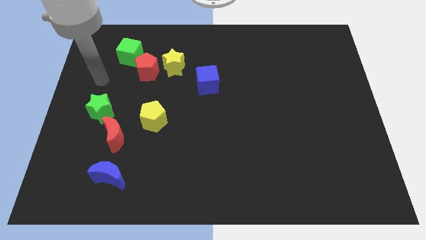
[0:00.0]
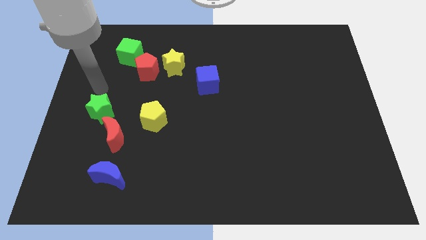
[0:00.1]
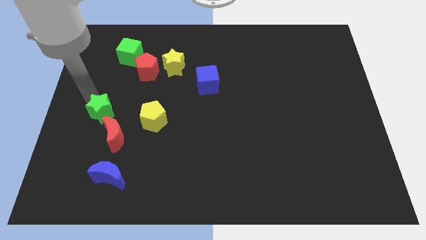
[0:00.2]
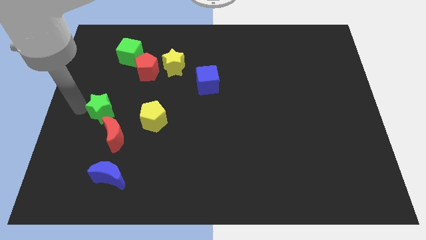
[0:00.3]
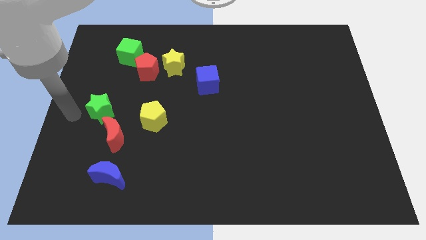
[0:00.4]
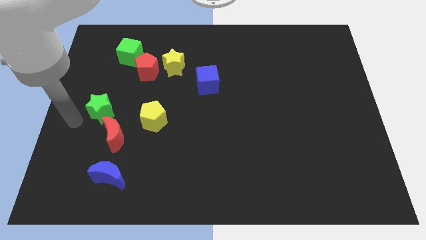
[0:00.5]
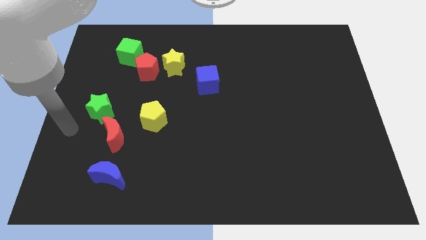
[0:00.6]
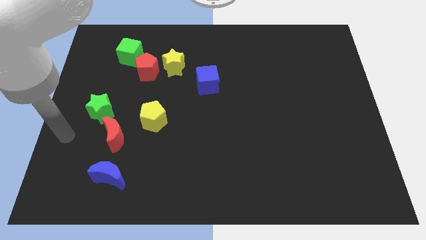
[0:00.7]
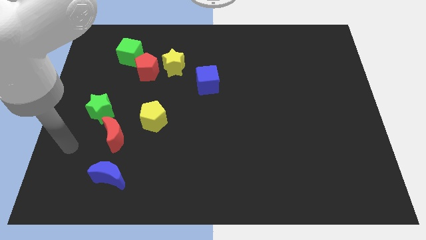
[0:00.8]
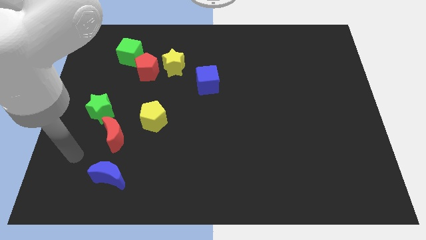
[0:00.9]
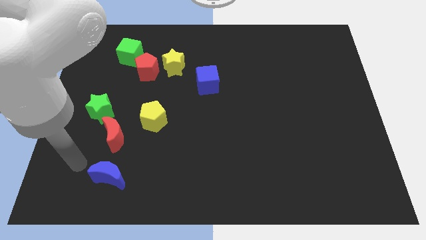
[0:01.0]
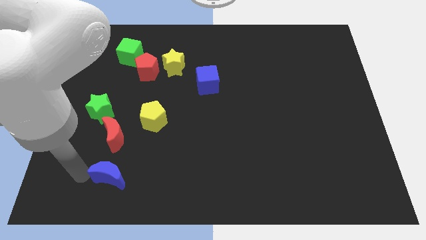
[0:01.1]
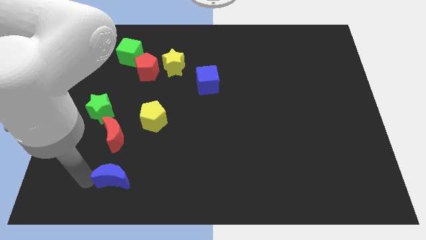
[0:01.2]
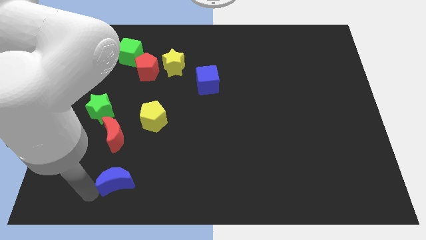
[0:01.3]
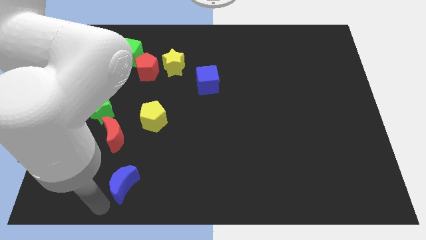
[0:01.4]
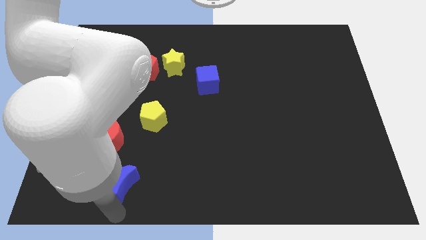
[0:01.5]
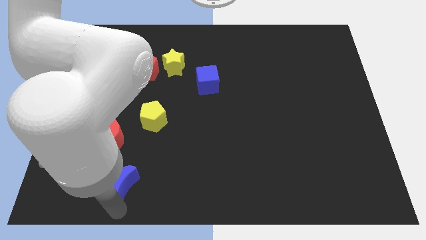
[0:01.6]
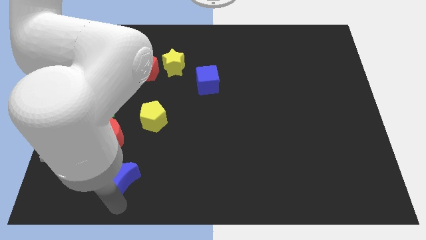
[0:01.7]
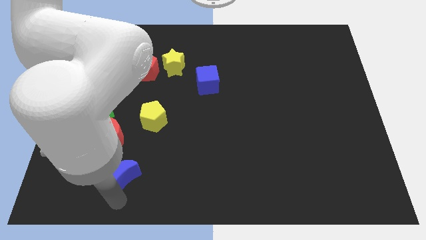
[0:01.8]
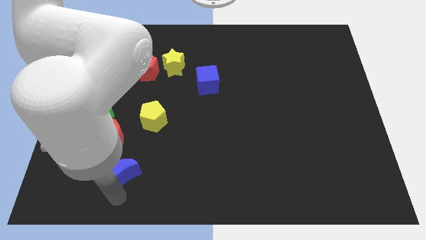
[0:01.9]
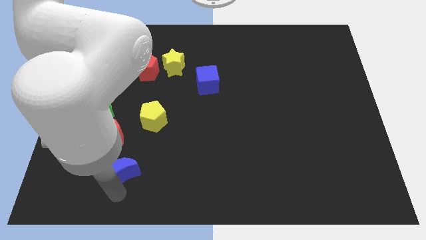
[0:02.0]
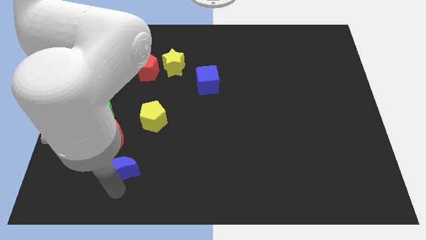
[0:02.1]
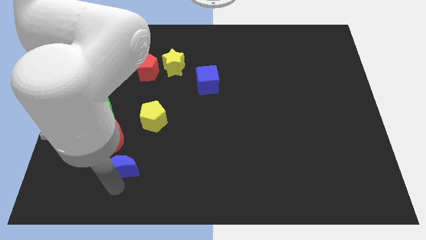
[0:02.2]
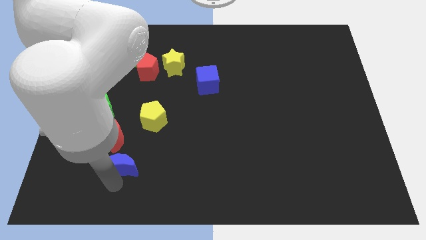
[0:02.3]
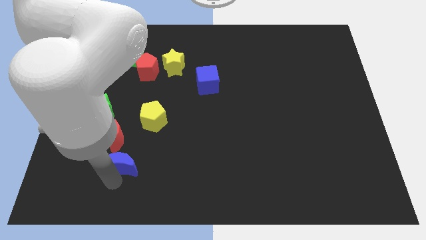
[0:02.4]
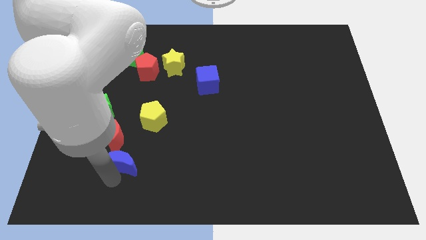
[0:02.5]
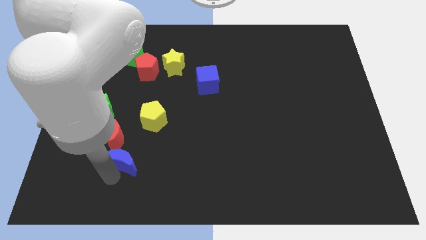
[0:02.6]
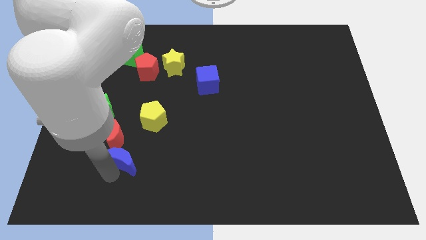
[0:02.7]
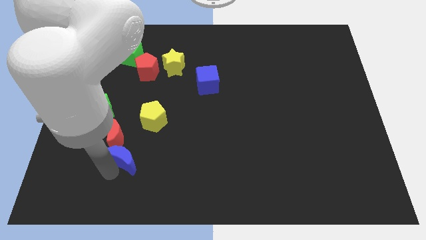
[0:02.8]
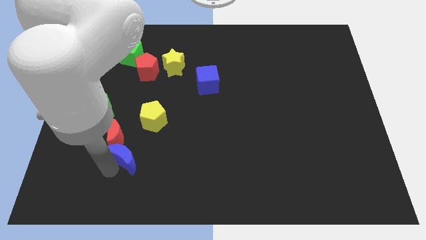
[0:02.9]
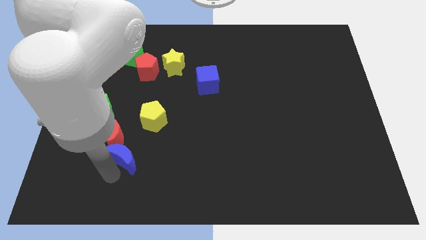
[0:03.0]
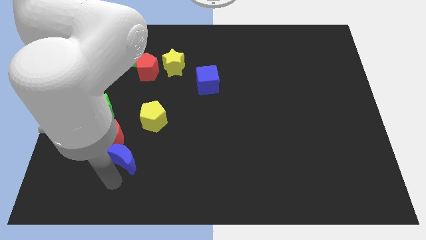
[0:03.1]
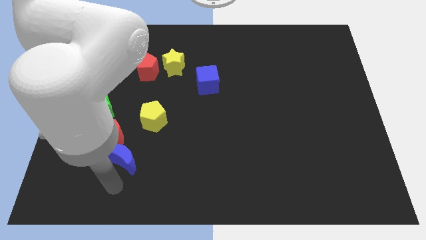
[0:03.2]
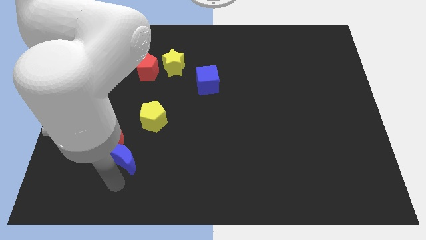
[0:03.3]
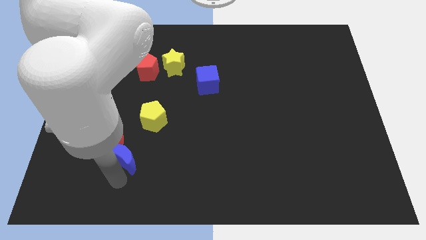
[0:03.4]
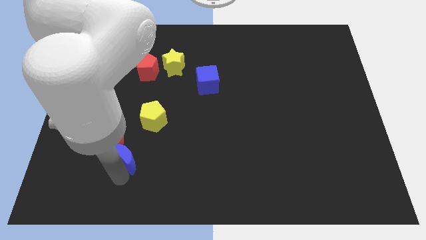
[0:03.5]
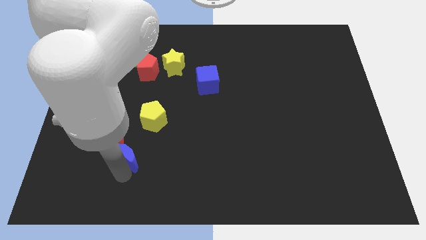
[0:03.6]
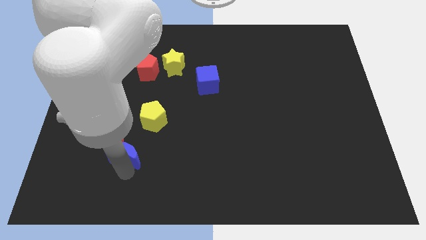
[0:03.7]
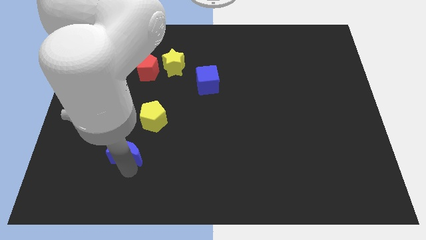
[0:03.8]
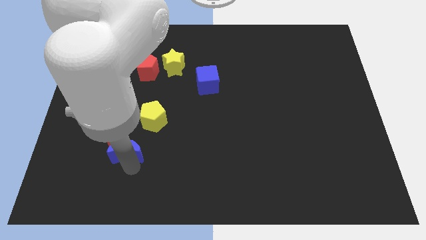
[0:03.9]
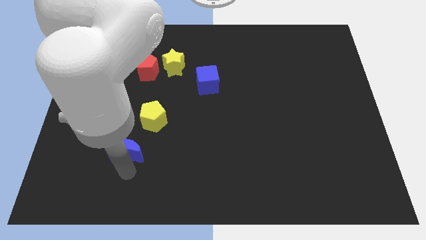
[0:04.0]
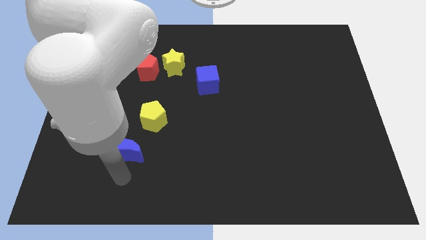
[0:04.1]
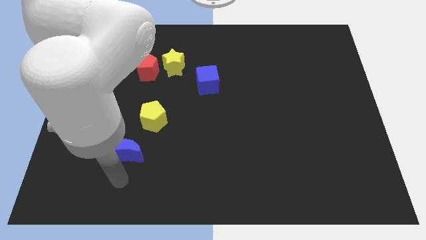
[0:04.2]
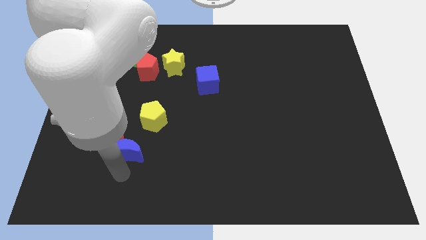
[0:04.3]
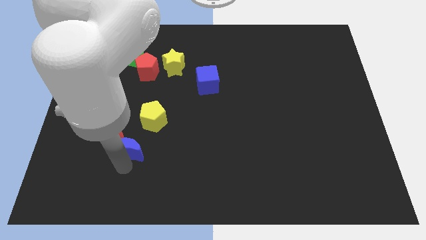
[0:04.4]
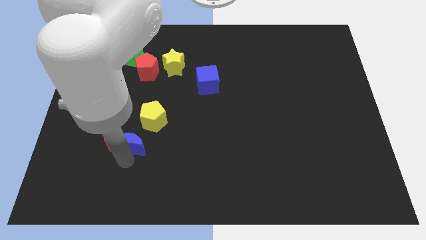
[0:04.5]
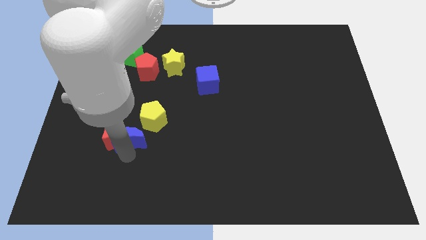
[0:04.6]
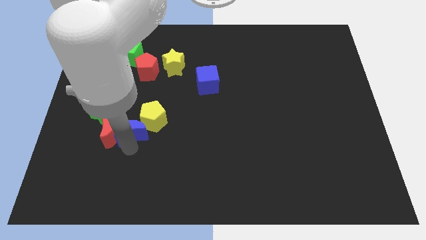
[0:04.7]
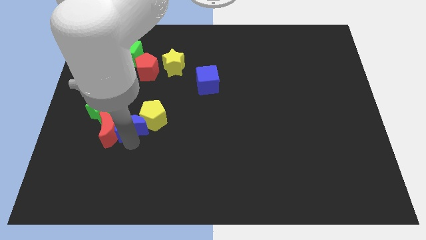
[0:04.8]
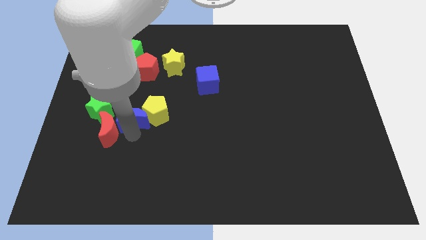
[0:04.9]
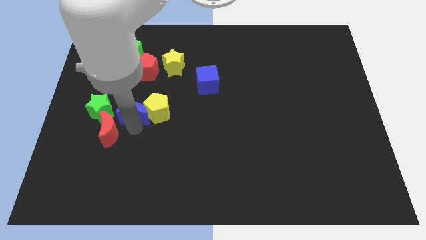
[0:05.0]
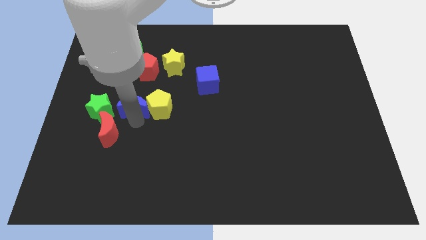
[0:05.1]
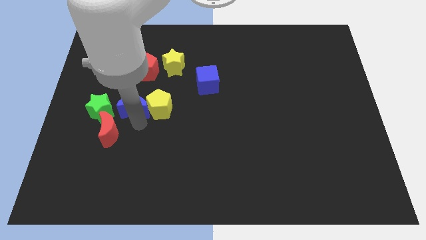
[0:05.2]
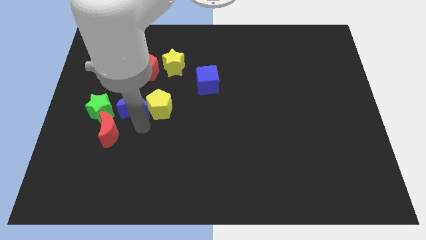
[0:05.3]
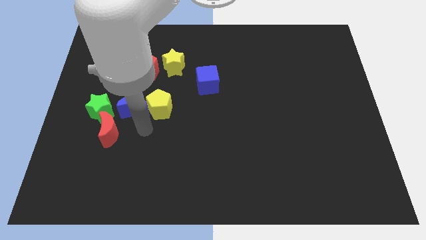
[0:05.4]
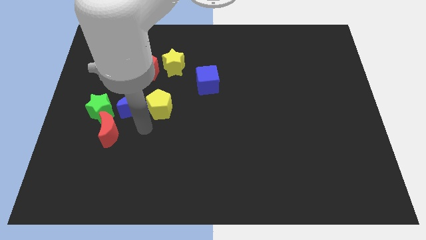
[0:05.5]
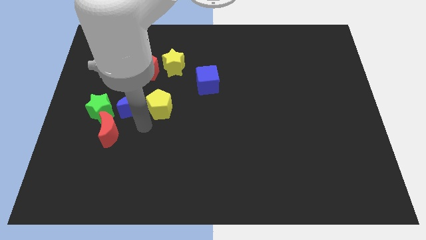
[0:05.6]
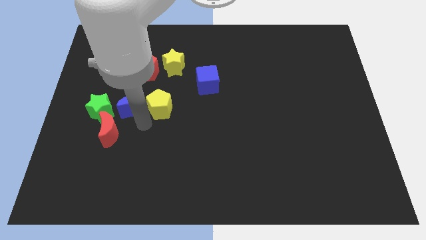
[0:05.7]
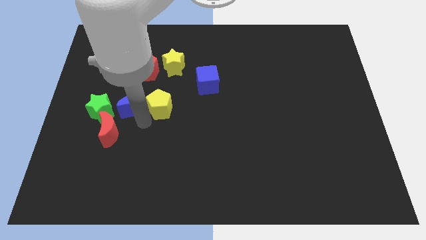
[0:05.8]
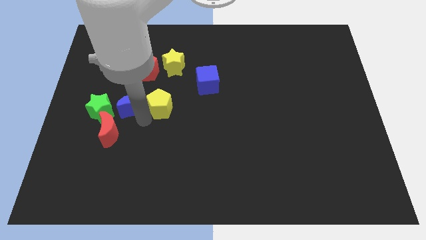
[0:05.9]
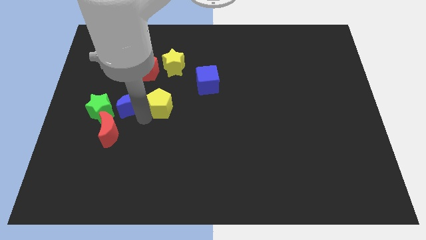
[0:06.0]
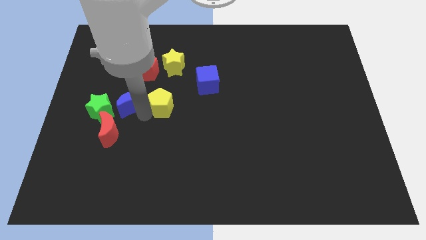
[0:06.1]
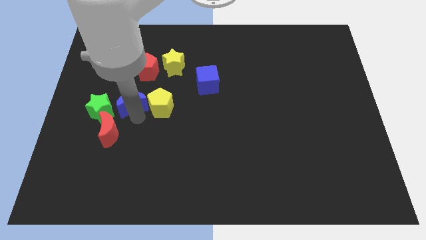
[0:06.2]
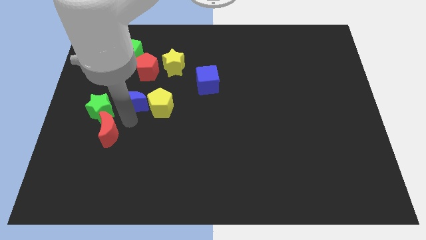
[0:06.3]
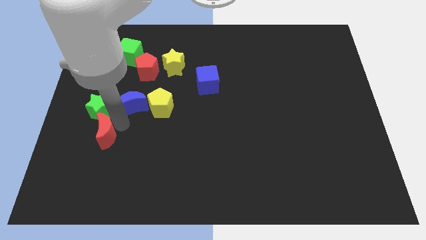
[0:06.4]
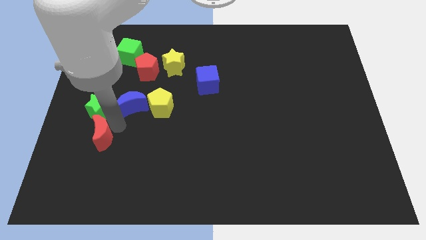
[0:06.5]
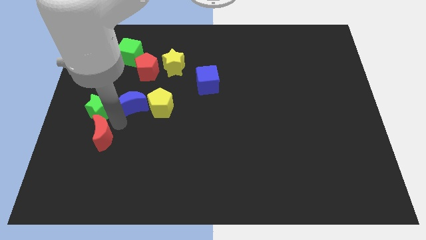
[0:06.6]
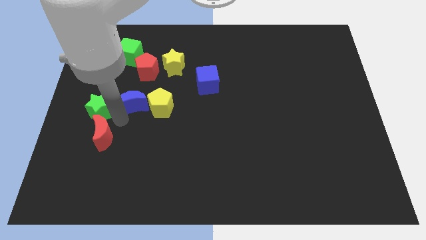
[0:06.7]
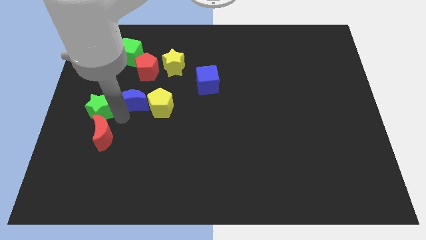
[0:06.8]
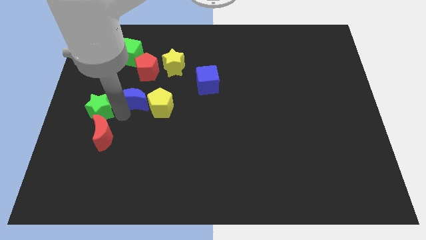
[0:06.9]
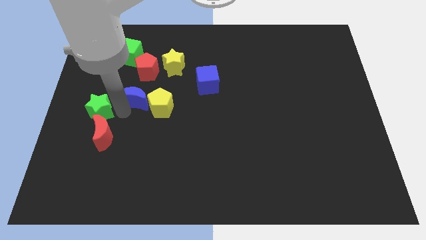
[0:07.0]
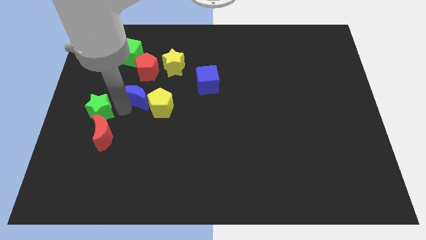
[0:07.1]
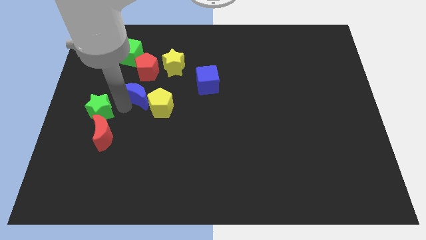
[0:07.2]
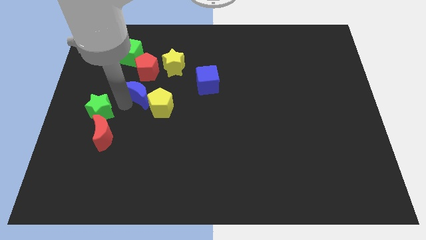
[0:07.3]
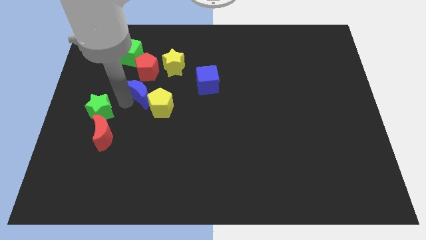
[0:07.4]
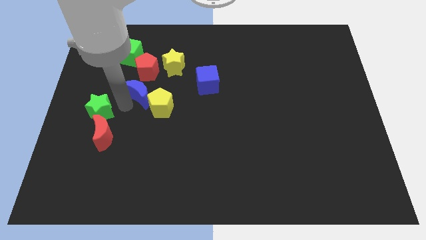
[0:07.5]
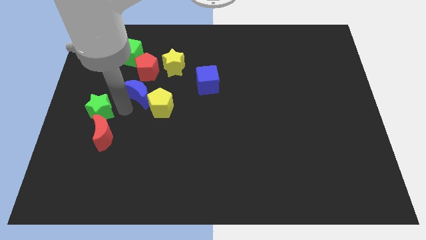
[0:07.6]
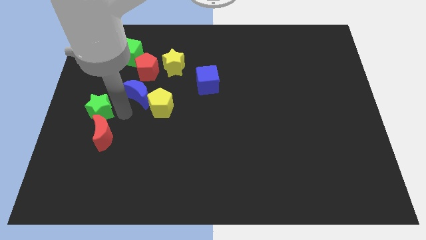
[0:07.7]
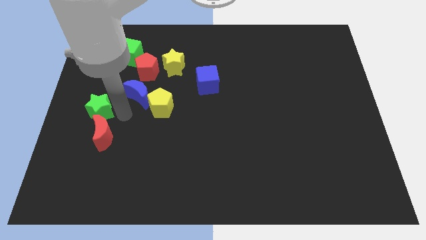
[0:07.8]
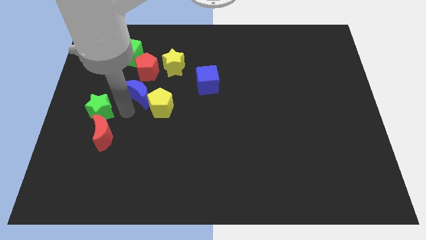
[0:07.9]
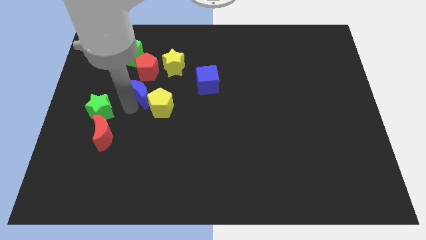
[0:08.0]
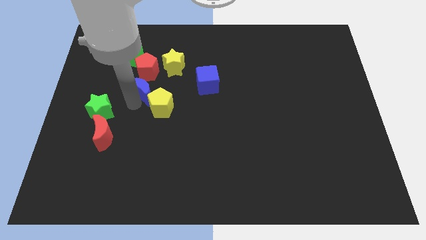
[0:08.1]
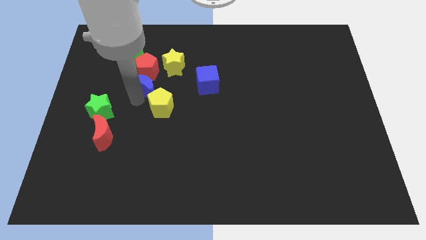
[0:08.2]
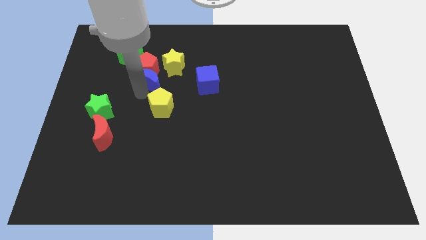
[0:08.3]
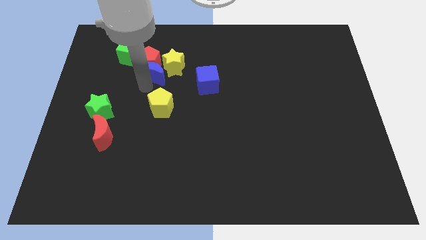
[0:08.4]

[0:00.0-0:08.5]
move the blue moon next to the yellow star
